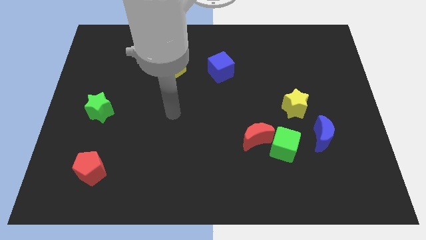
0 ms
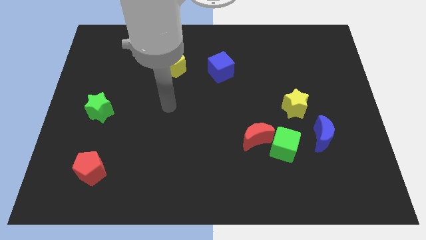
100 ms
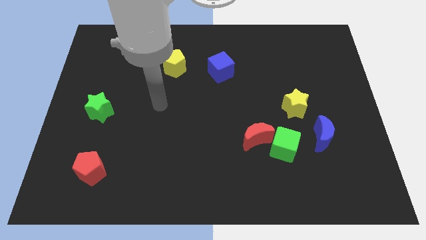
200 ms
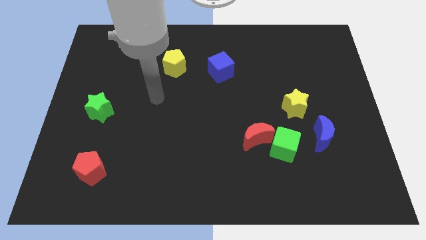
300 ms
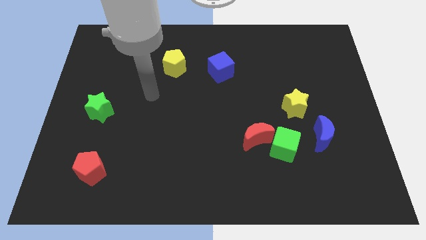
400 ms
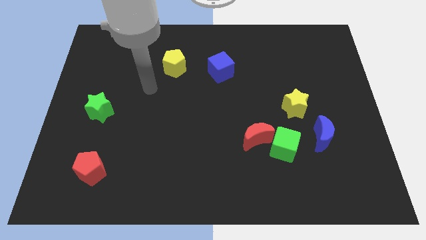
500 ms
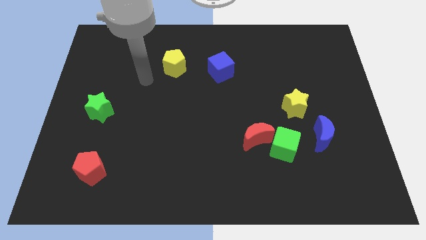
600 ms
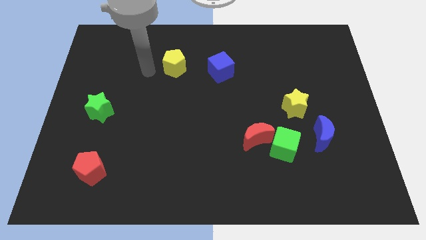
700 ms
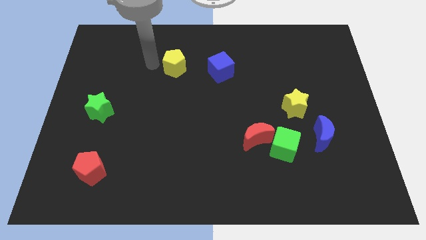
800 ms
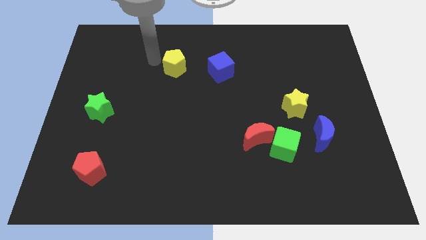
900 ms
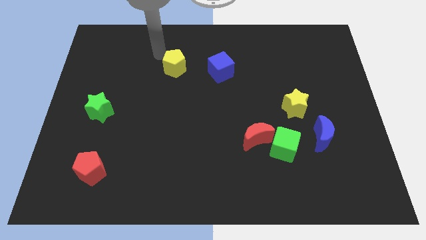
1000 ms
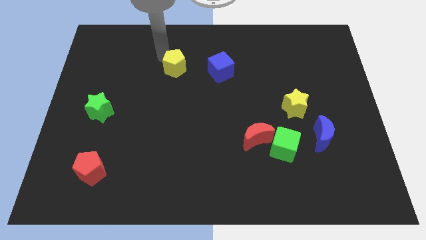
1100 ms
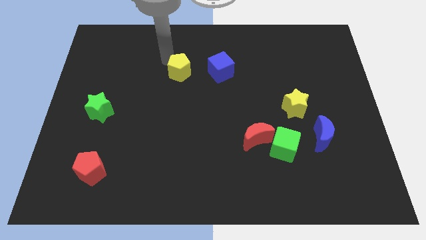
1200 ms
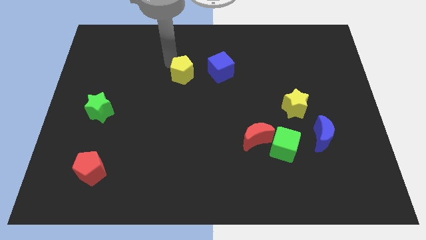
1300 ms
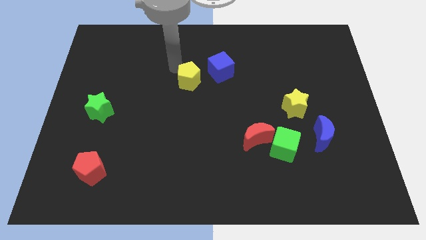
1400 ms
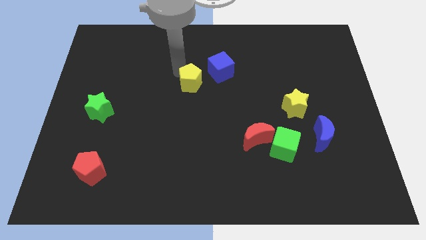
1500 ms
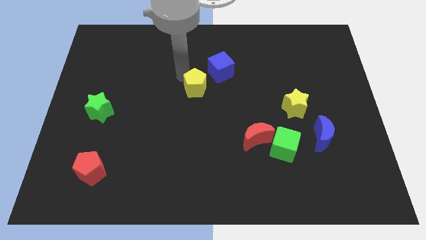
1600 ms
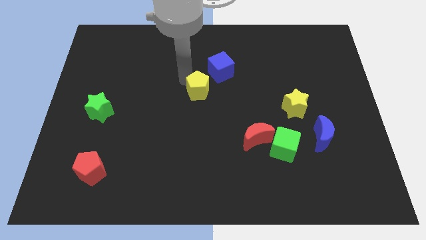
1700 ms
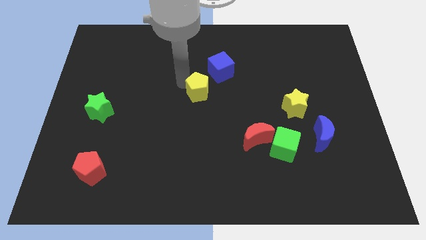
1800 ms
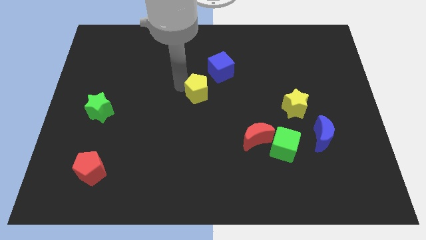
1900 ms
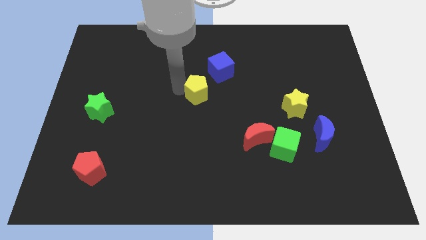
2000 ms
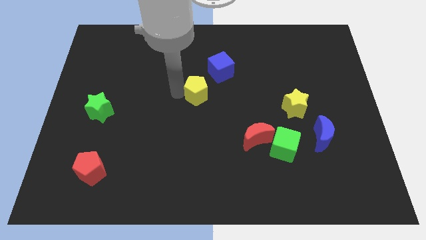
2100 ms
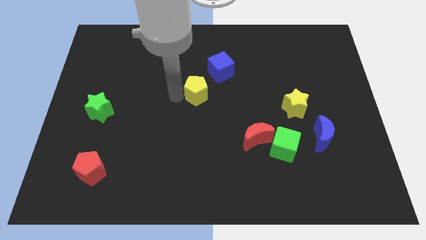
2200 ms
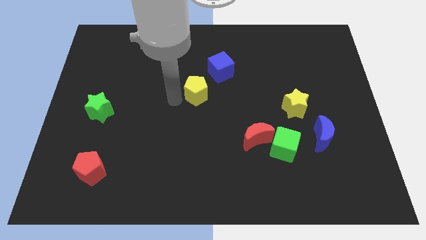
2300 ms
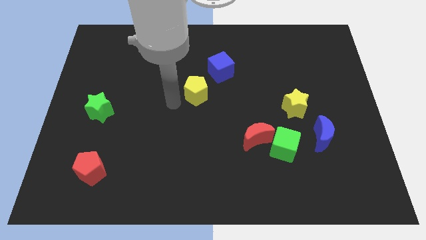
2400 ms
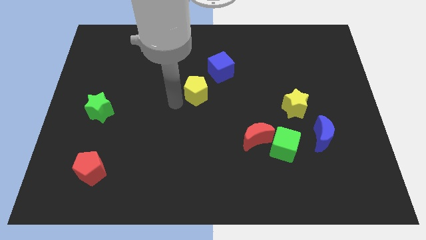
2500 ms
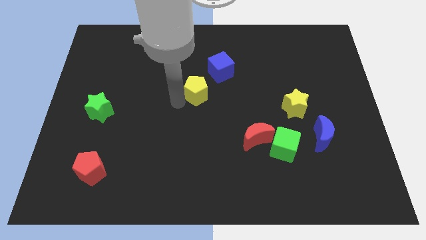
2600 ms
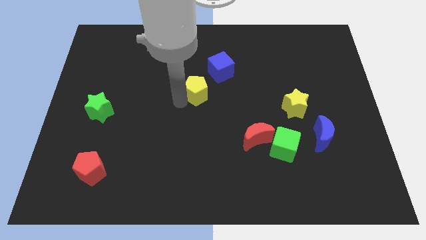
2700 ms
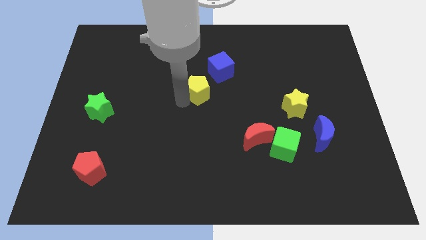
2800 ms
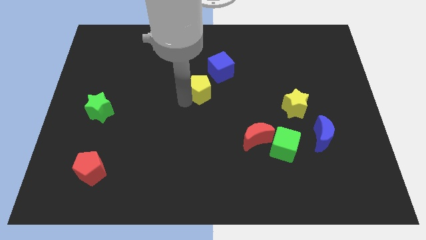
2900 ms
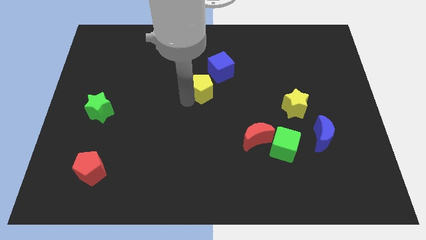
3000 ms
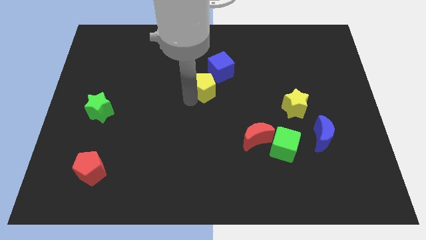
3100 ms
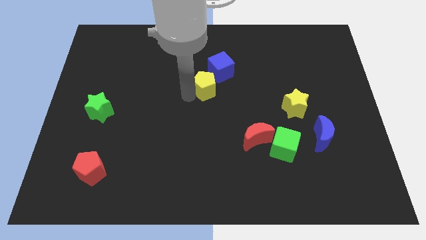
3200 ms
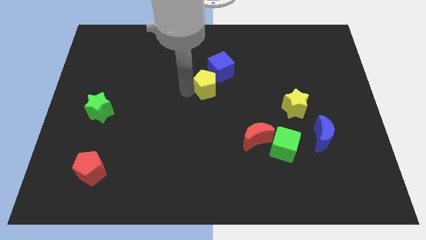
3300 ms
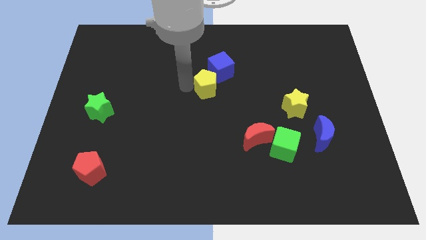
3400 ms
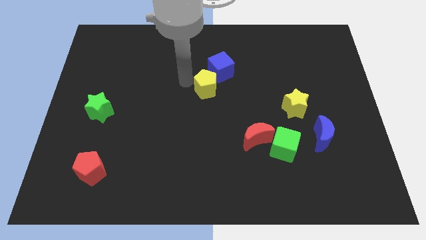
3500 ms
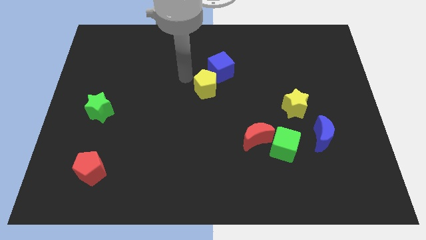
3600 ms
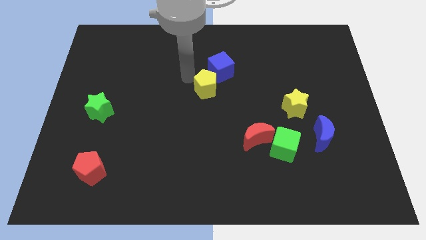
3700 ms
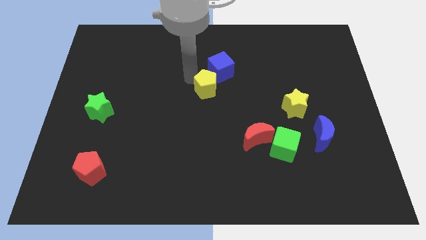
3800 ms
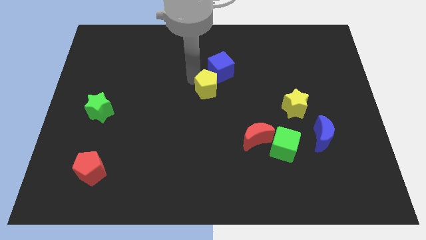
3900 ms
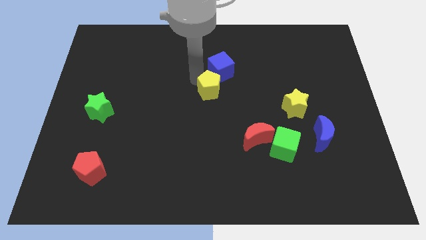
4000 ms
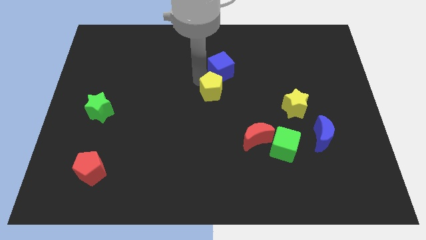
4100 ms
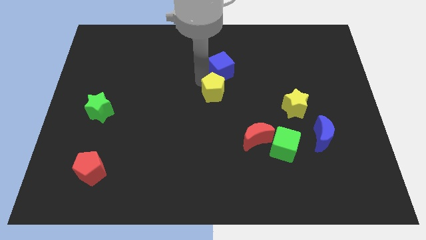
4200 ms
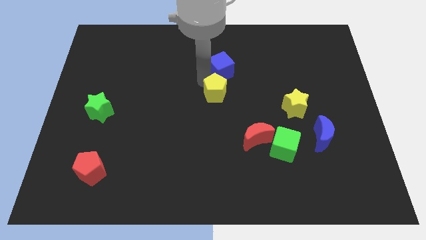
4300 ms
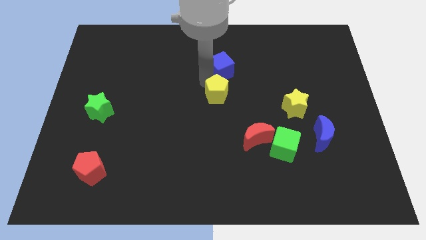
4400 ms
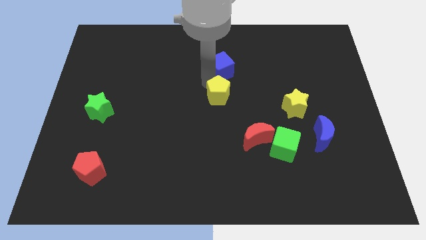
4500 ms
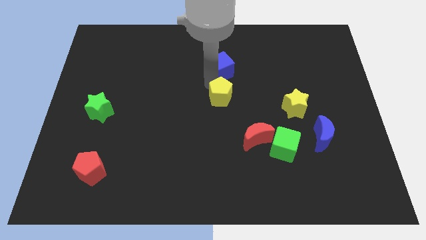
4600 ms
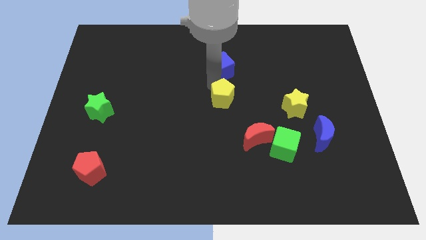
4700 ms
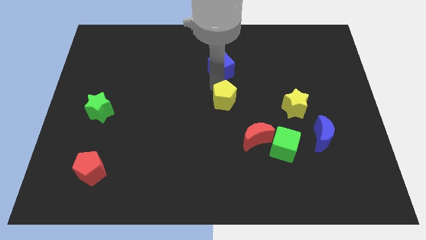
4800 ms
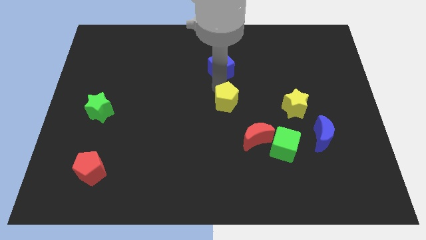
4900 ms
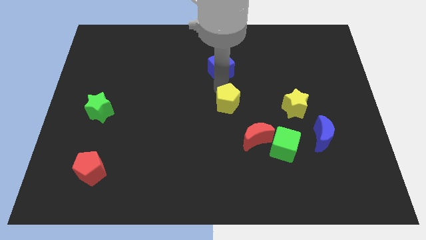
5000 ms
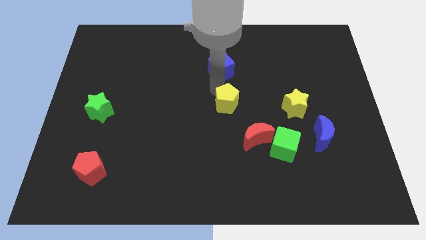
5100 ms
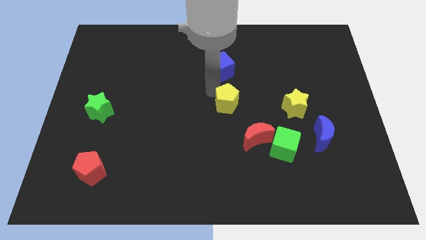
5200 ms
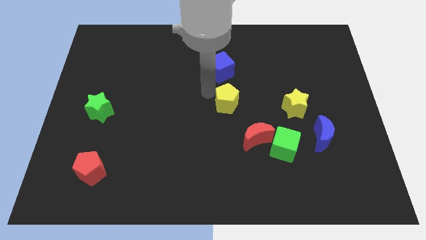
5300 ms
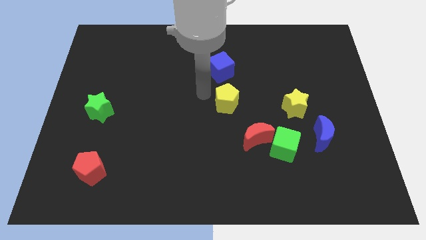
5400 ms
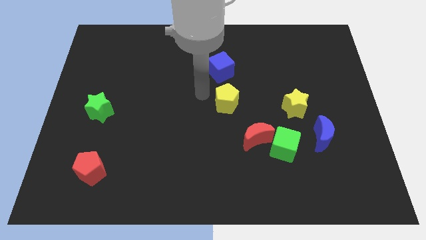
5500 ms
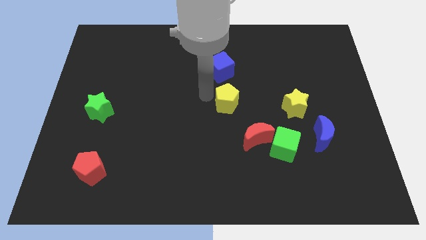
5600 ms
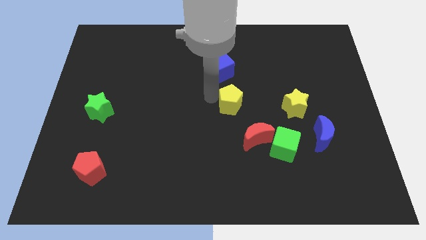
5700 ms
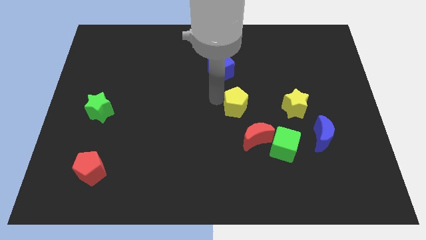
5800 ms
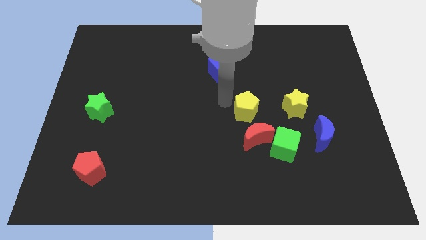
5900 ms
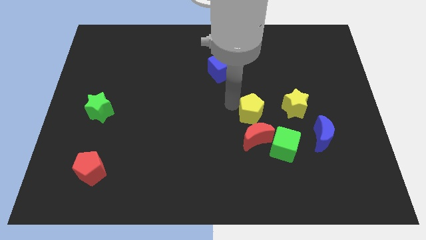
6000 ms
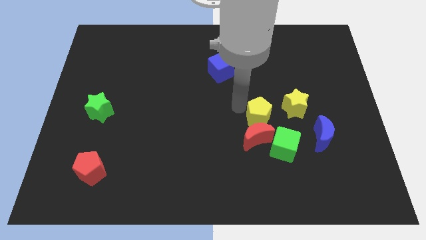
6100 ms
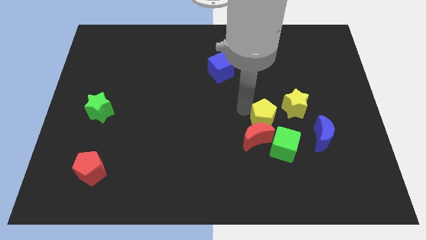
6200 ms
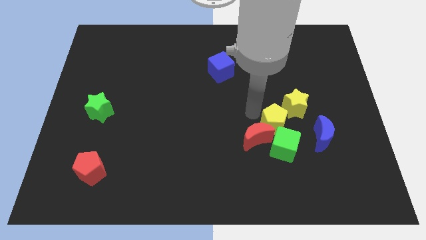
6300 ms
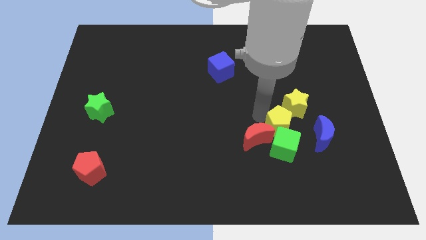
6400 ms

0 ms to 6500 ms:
slide the yellow pentagon to the bottom of the yellow star

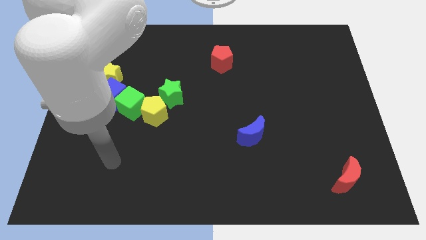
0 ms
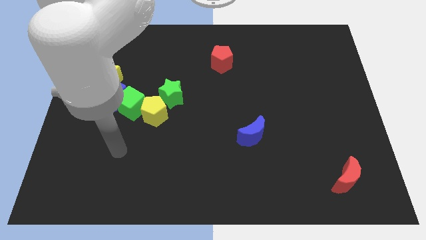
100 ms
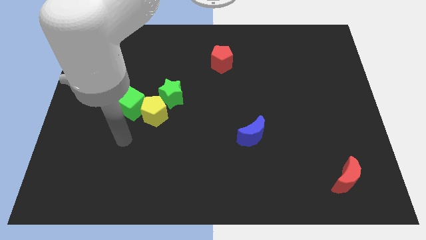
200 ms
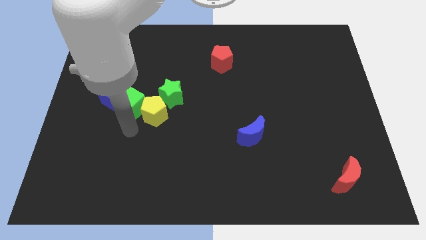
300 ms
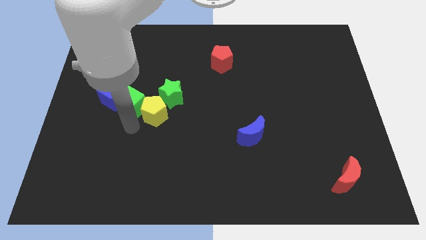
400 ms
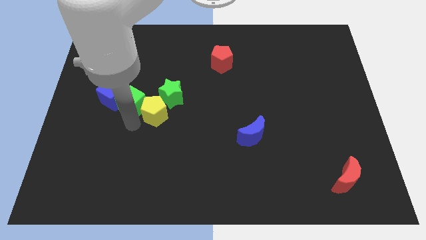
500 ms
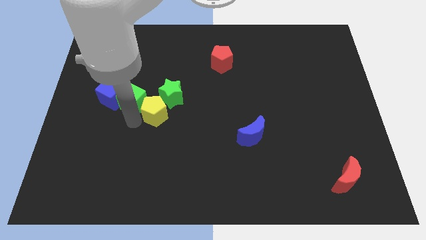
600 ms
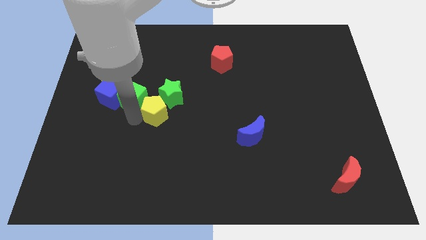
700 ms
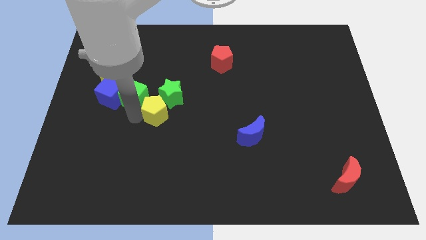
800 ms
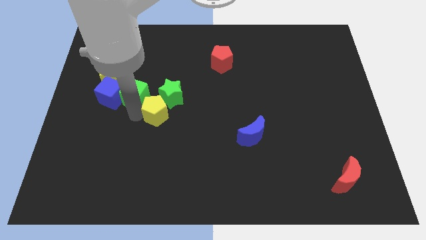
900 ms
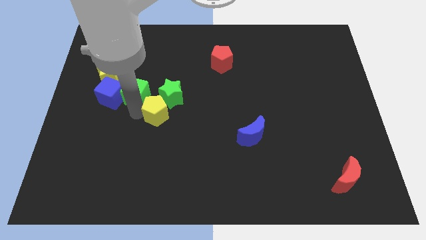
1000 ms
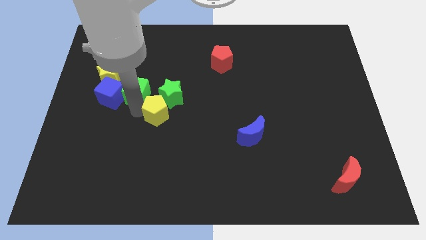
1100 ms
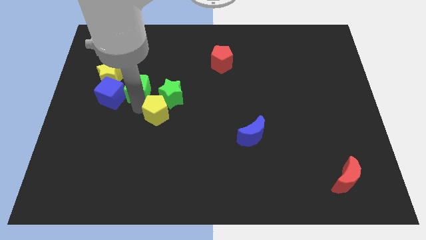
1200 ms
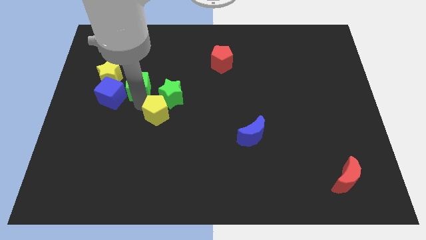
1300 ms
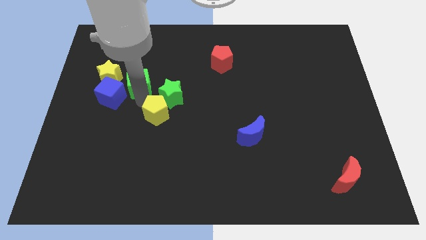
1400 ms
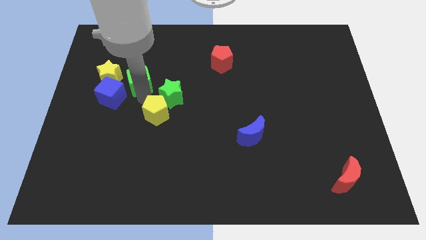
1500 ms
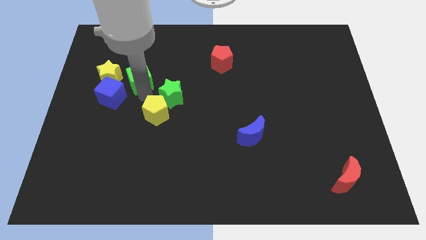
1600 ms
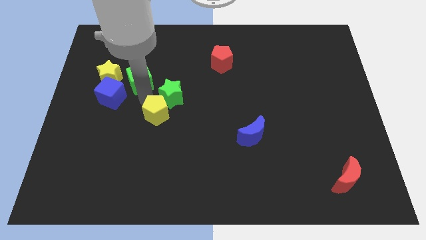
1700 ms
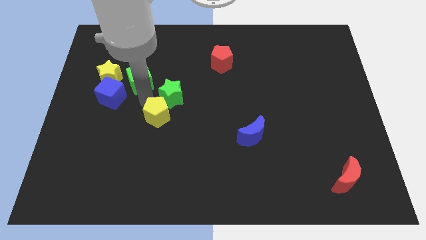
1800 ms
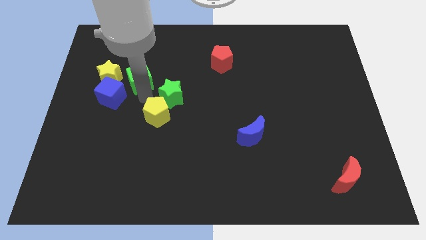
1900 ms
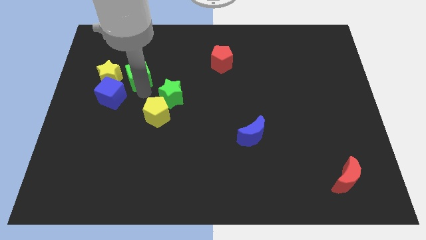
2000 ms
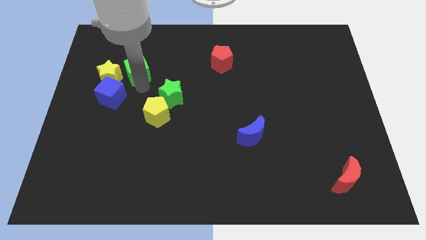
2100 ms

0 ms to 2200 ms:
push the green cube to the top right side of the yellow star
